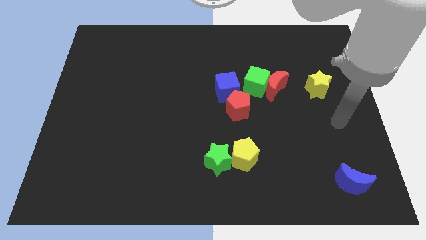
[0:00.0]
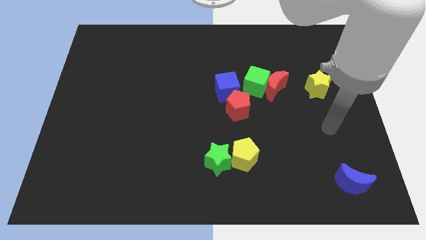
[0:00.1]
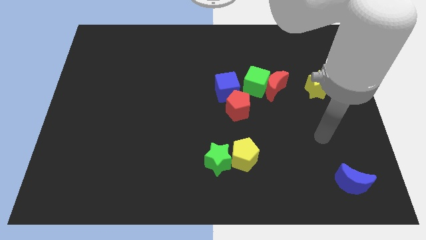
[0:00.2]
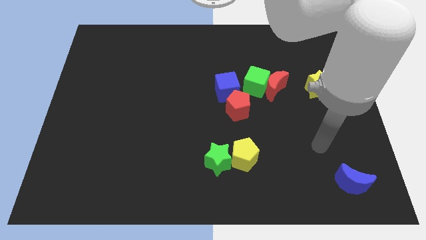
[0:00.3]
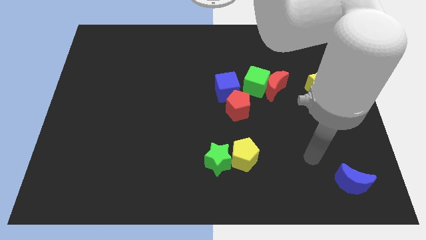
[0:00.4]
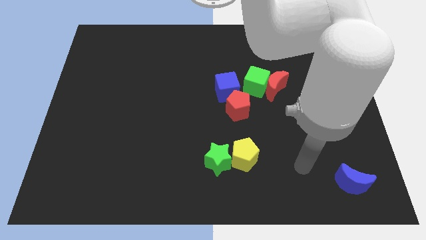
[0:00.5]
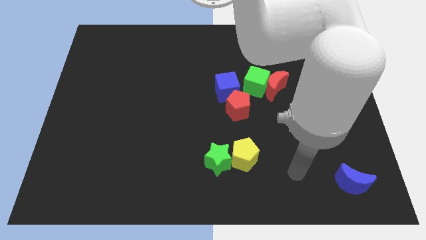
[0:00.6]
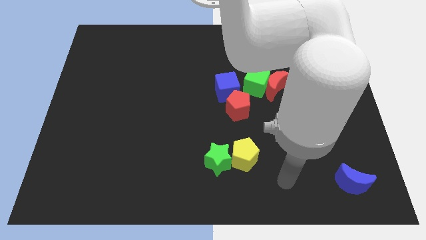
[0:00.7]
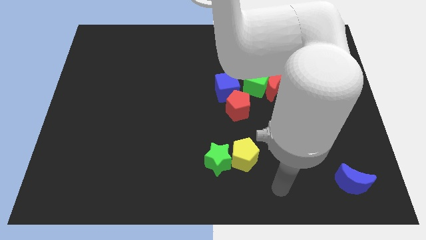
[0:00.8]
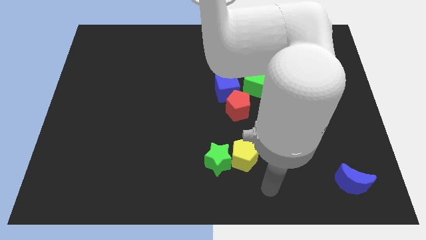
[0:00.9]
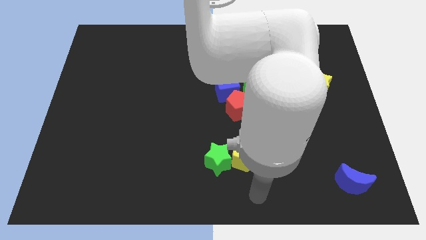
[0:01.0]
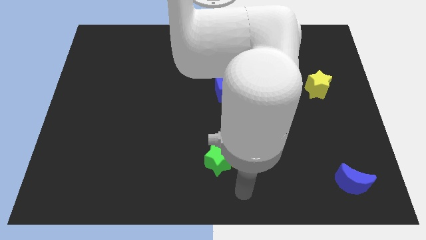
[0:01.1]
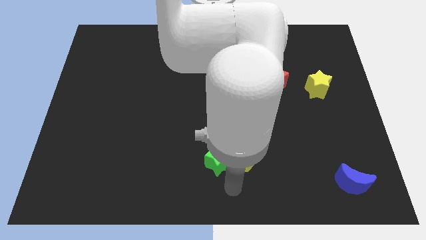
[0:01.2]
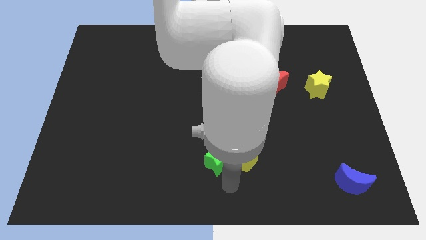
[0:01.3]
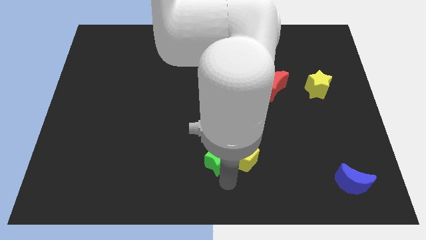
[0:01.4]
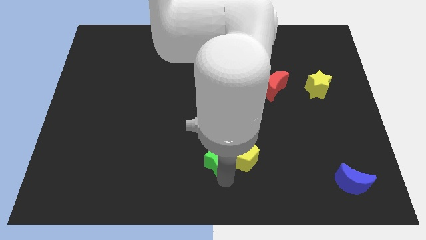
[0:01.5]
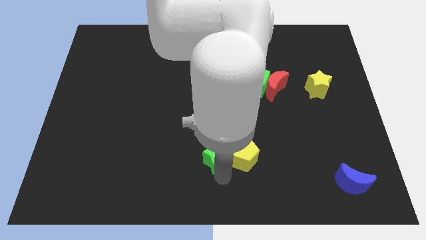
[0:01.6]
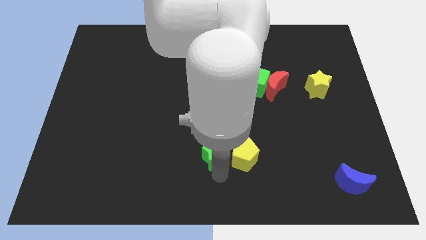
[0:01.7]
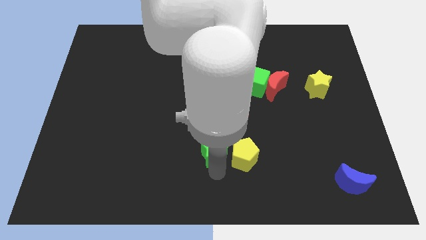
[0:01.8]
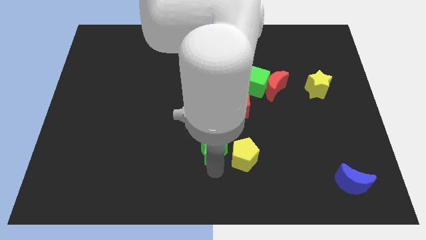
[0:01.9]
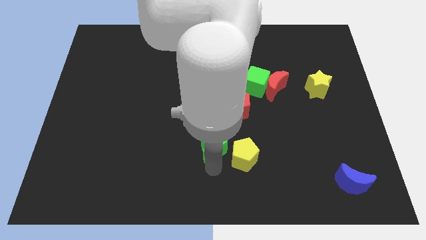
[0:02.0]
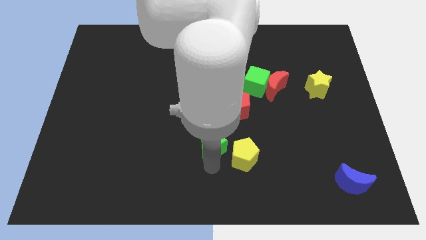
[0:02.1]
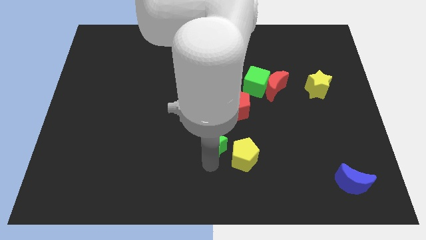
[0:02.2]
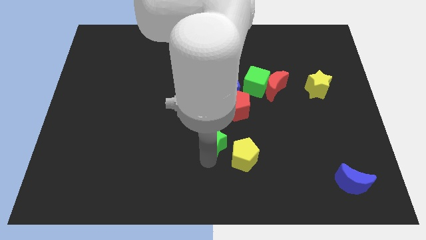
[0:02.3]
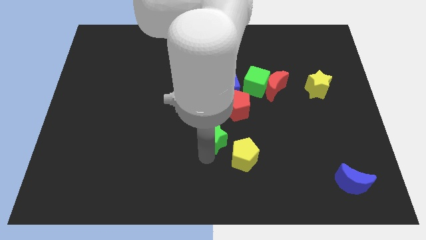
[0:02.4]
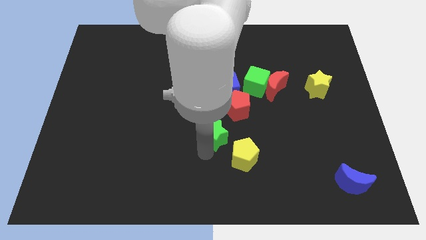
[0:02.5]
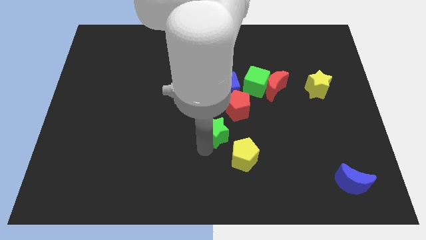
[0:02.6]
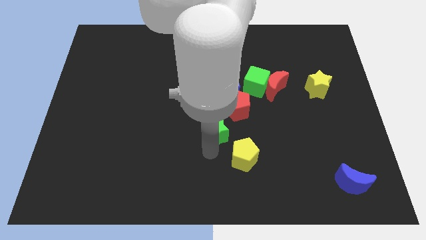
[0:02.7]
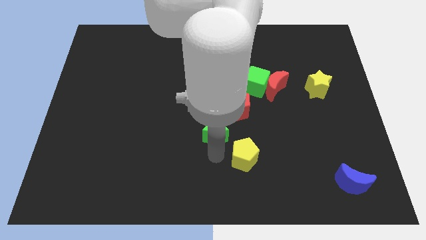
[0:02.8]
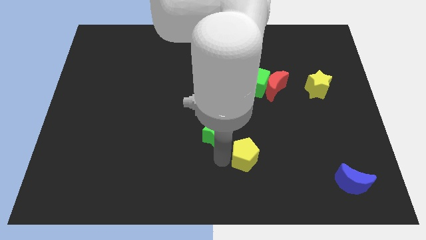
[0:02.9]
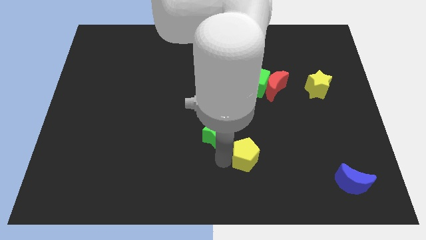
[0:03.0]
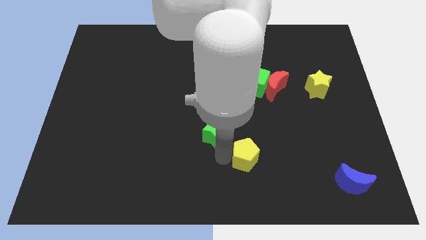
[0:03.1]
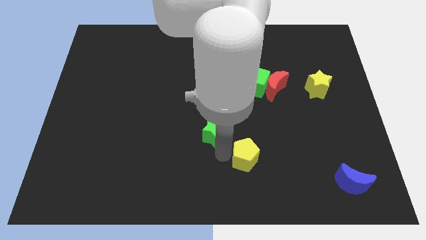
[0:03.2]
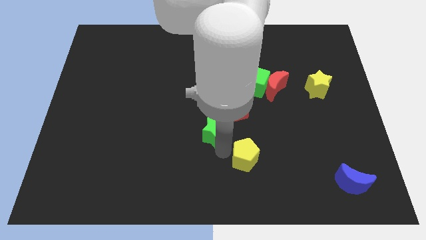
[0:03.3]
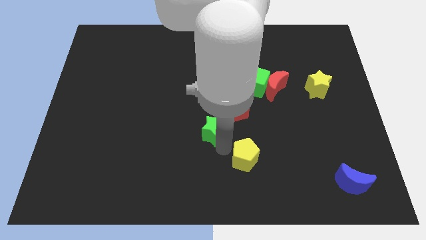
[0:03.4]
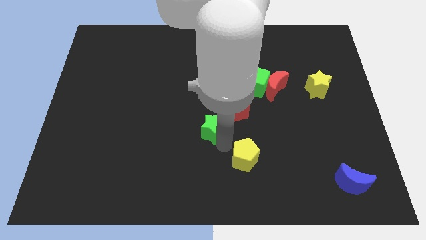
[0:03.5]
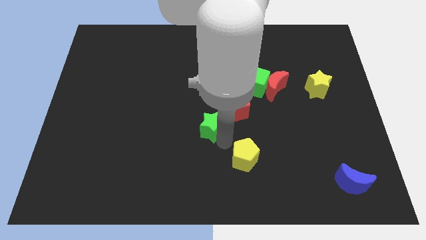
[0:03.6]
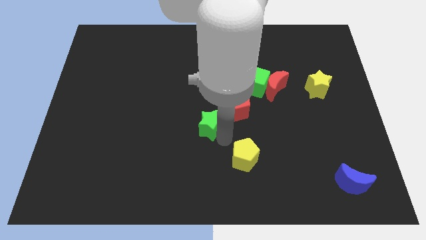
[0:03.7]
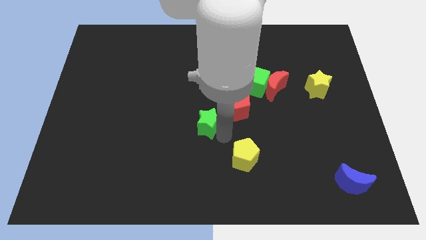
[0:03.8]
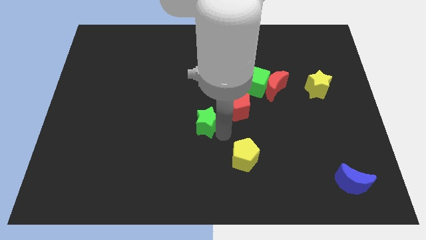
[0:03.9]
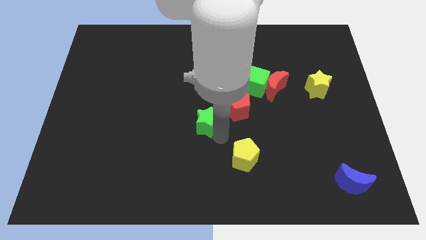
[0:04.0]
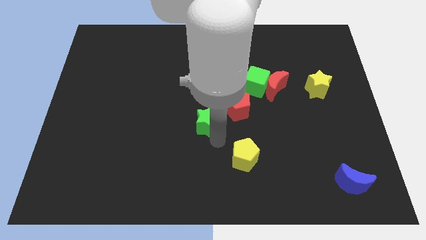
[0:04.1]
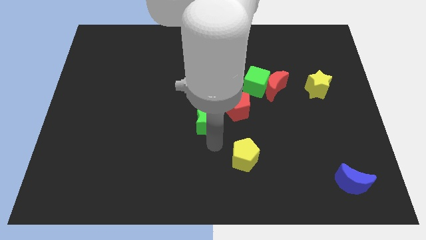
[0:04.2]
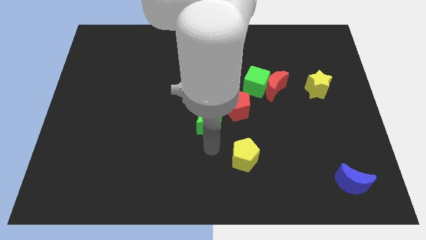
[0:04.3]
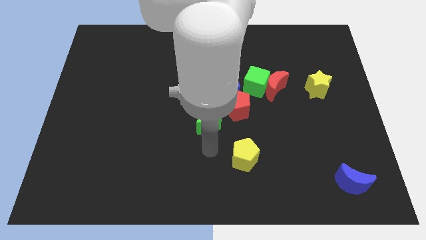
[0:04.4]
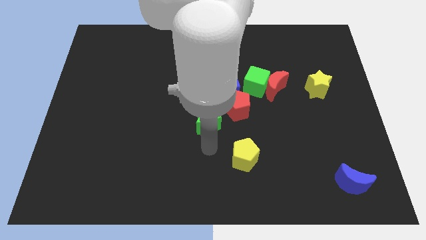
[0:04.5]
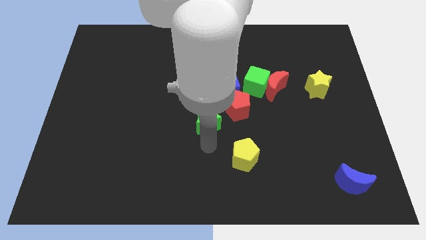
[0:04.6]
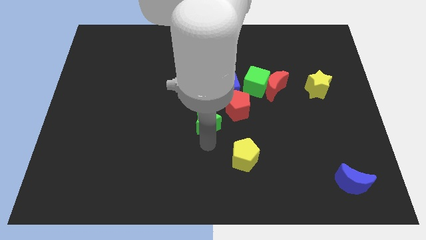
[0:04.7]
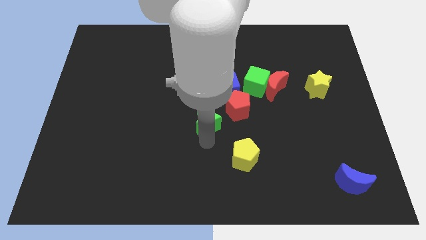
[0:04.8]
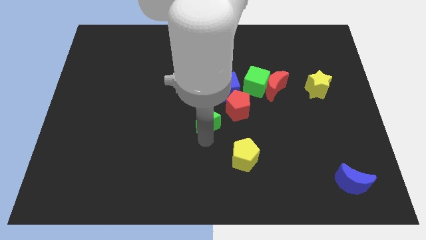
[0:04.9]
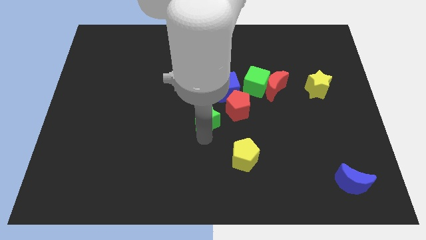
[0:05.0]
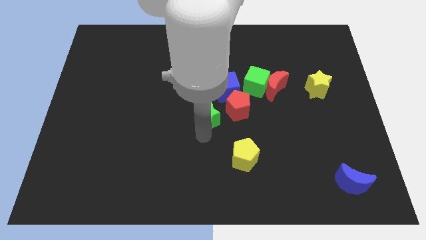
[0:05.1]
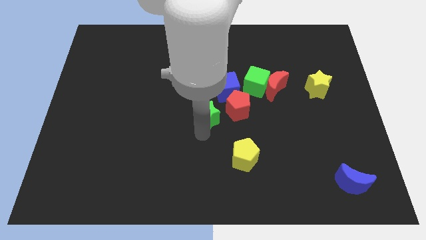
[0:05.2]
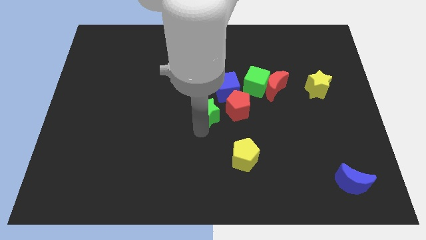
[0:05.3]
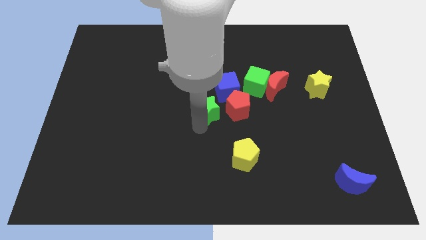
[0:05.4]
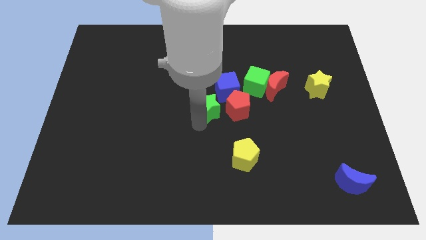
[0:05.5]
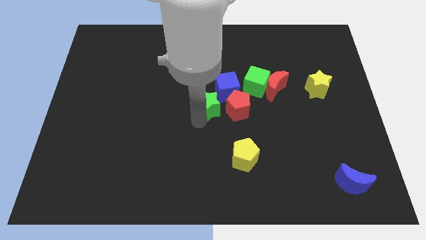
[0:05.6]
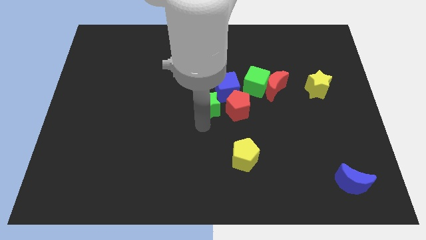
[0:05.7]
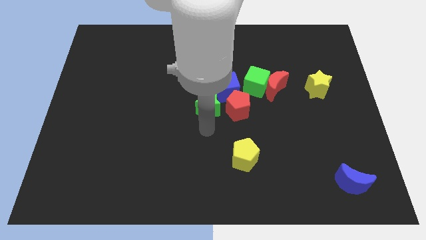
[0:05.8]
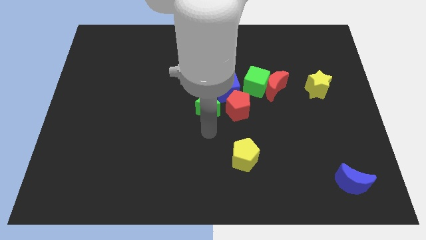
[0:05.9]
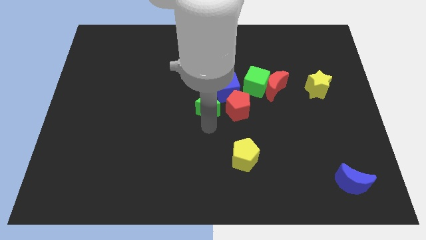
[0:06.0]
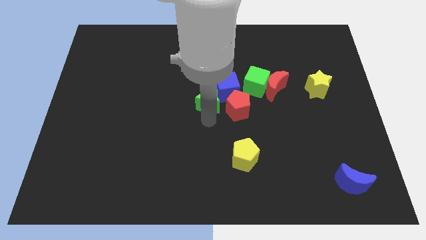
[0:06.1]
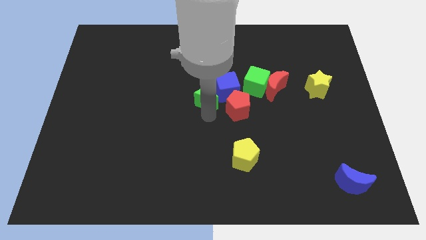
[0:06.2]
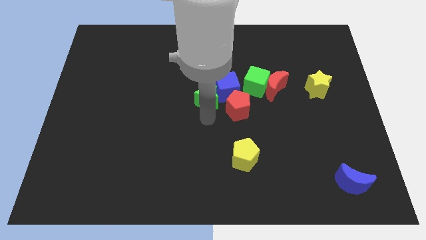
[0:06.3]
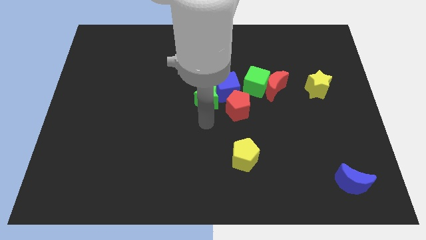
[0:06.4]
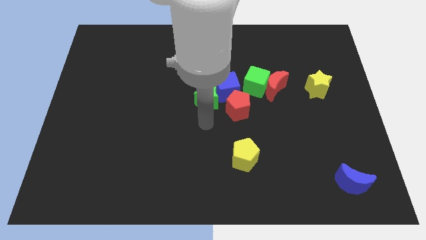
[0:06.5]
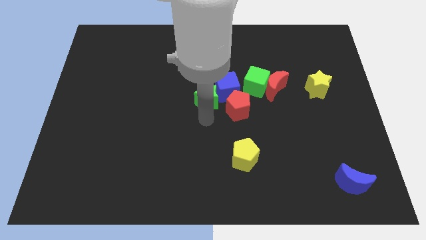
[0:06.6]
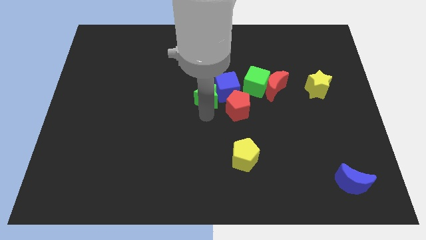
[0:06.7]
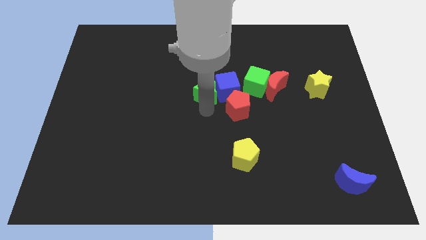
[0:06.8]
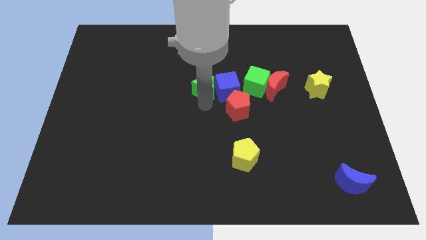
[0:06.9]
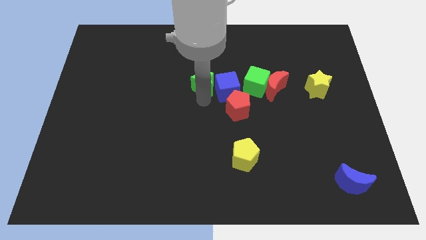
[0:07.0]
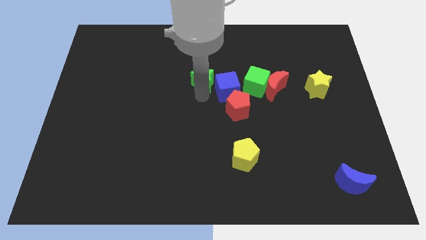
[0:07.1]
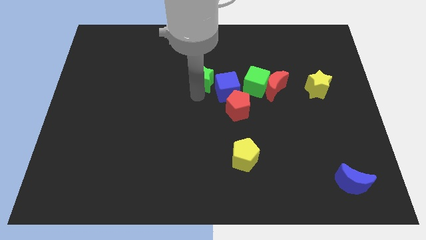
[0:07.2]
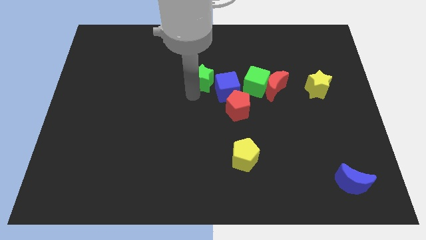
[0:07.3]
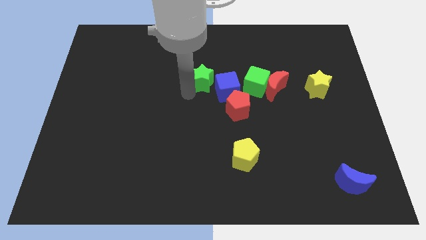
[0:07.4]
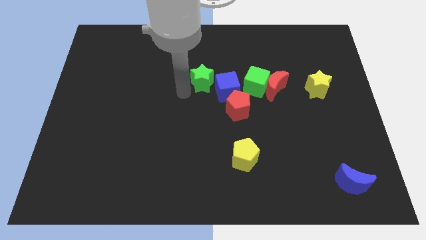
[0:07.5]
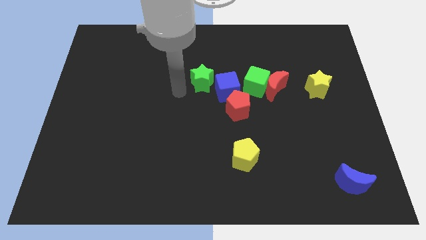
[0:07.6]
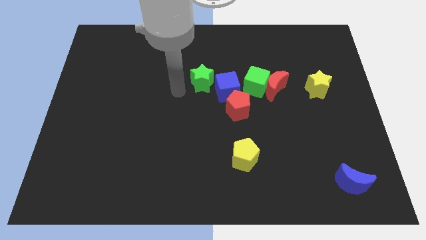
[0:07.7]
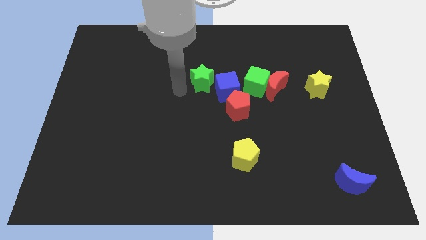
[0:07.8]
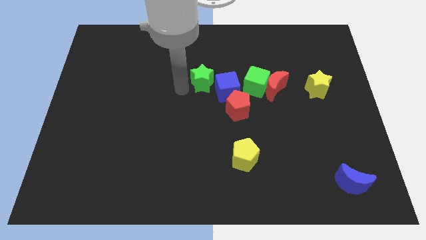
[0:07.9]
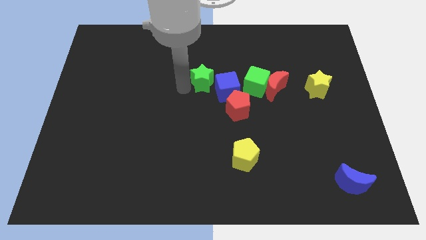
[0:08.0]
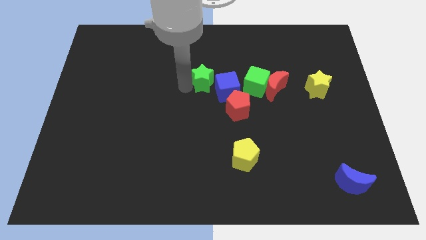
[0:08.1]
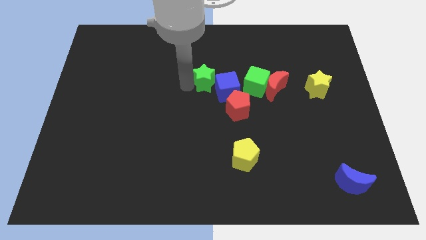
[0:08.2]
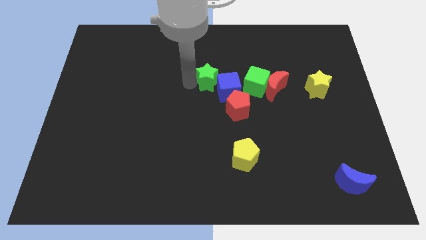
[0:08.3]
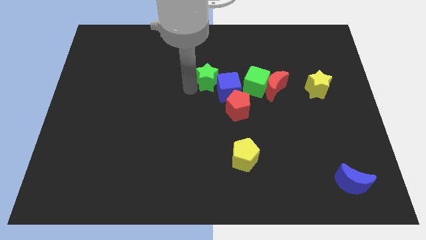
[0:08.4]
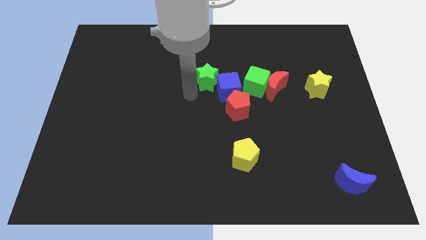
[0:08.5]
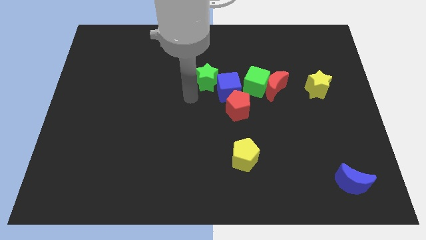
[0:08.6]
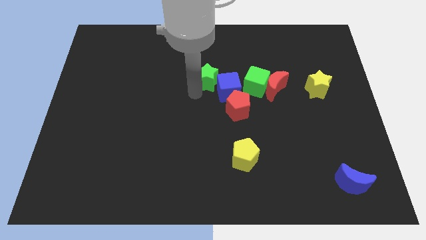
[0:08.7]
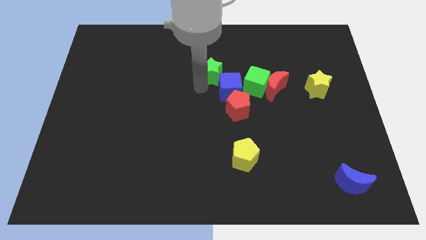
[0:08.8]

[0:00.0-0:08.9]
move the green star to the top of the blue cube
